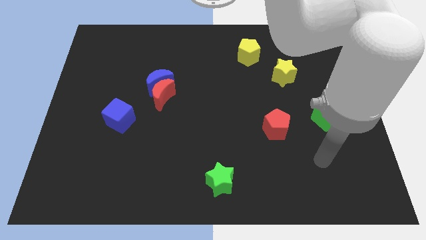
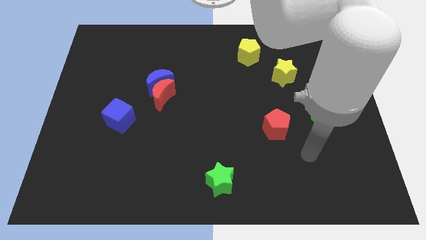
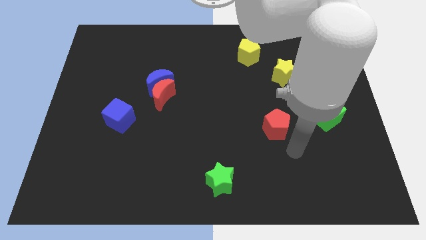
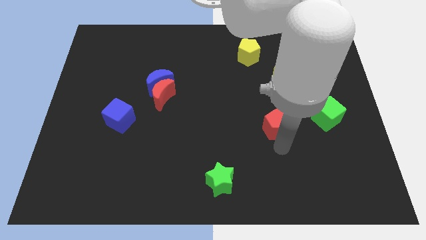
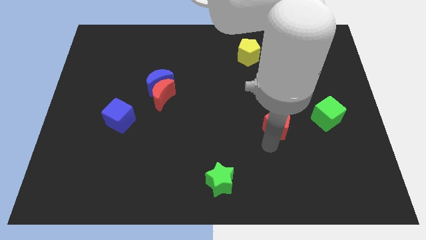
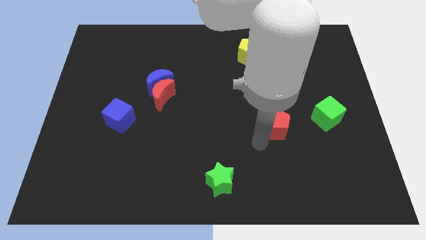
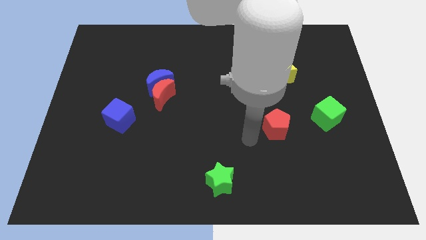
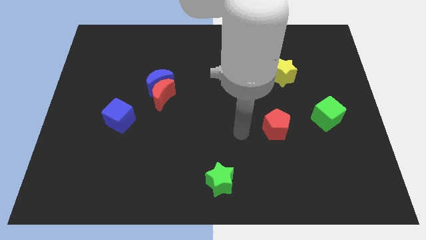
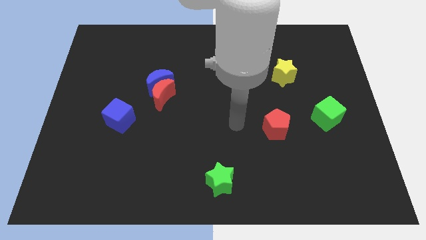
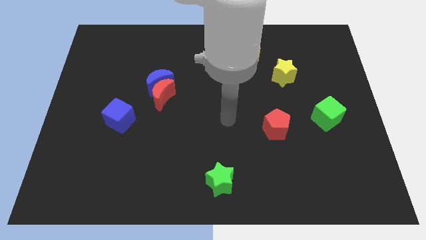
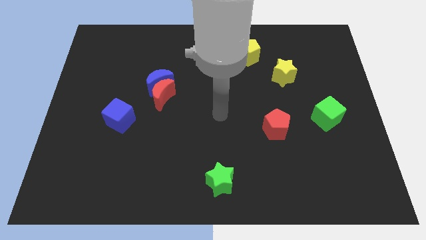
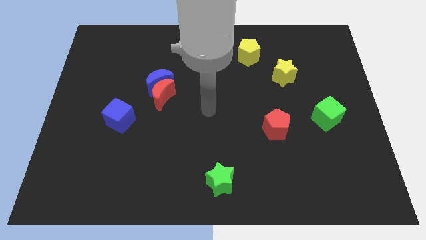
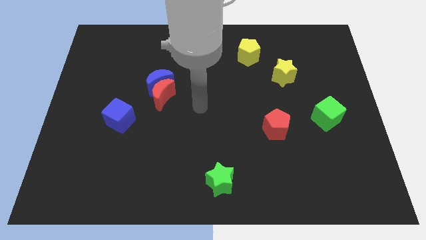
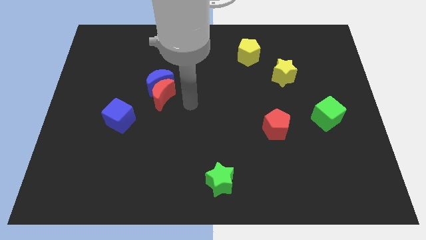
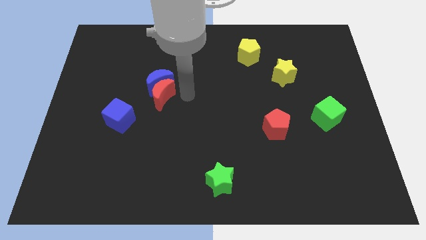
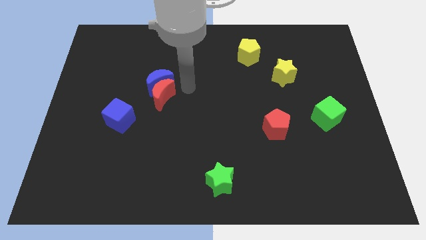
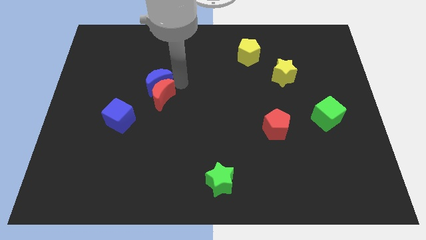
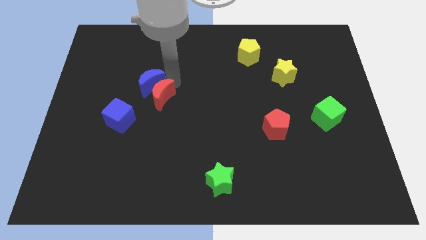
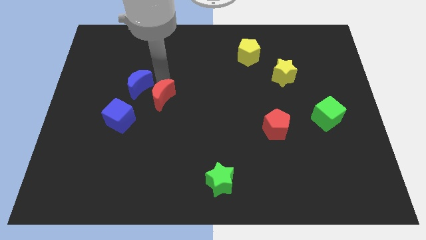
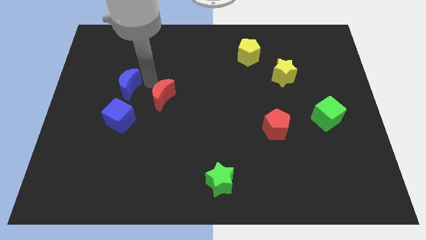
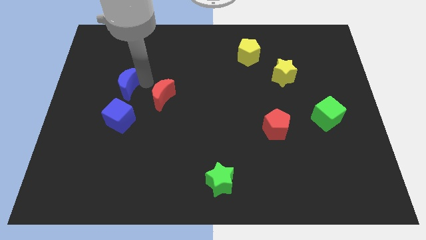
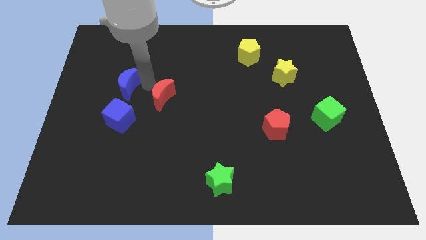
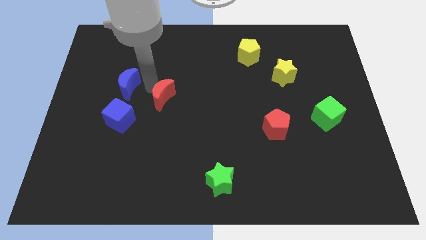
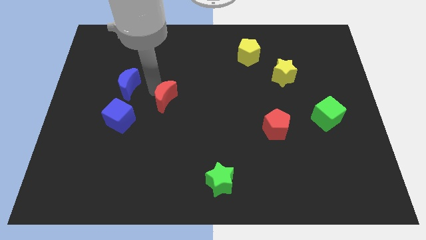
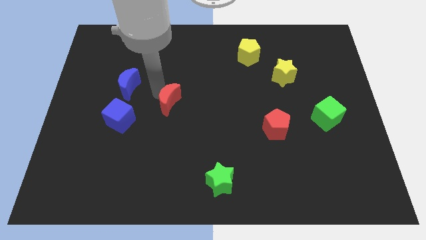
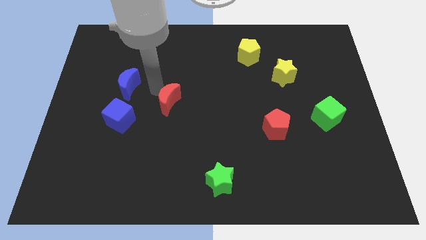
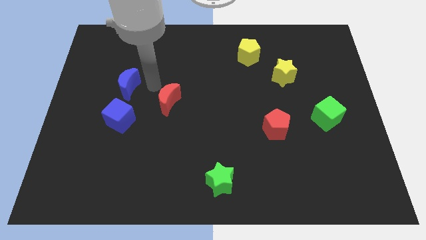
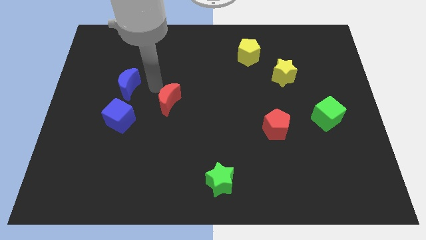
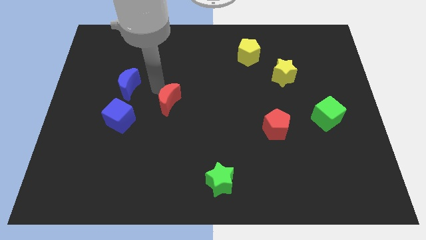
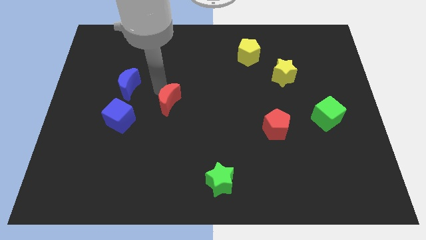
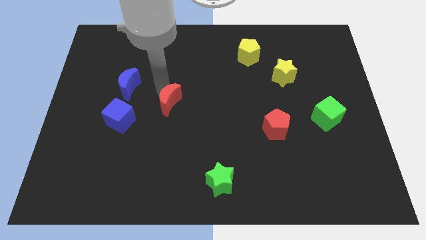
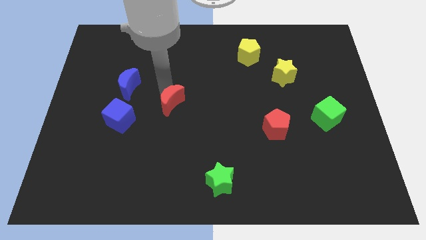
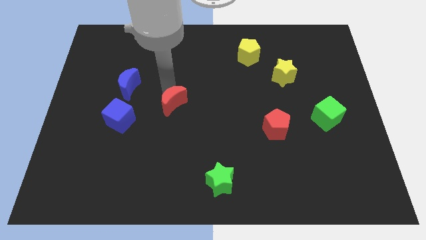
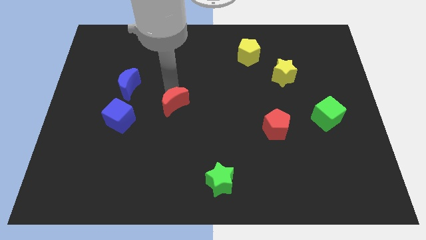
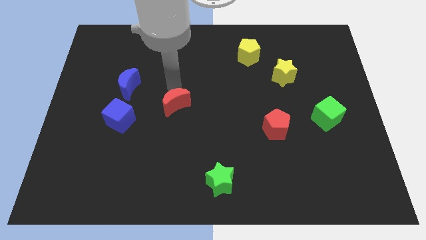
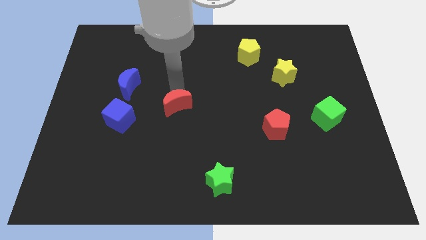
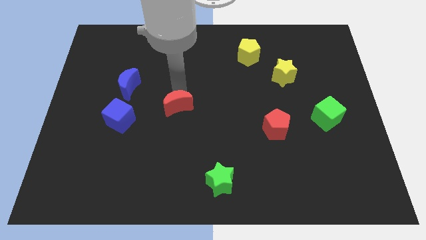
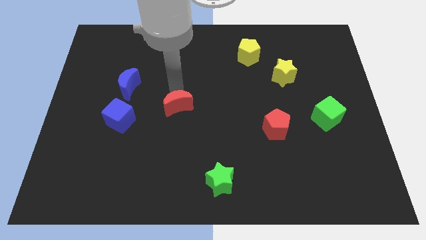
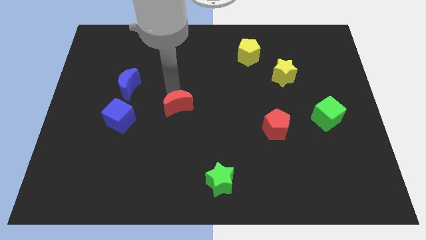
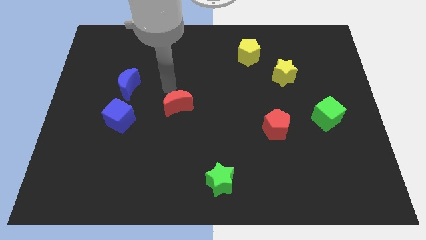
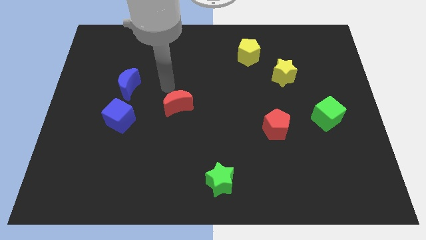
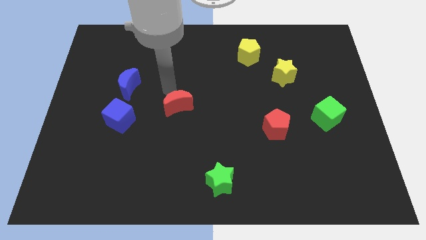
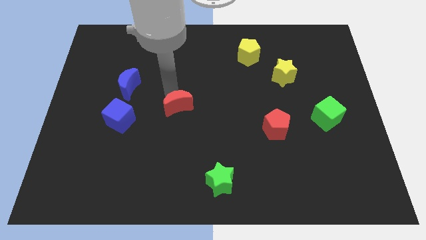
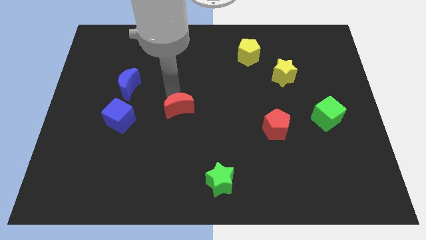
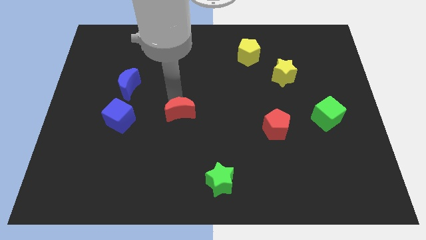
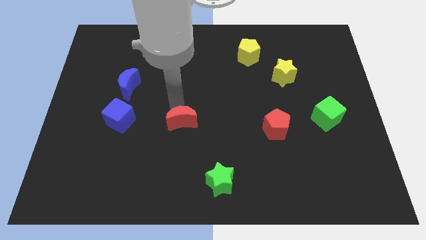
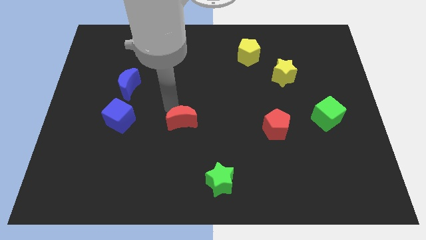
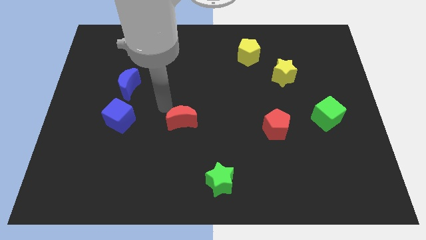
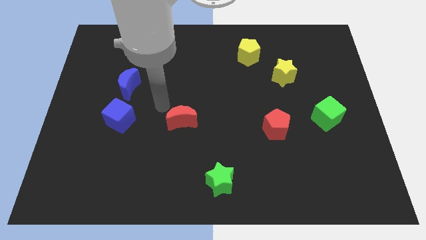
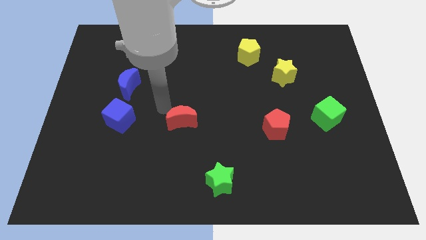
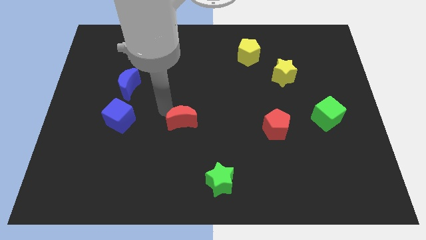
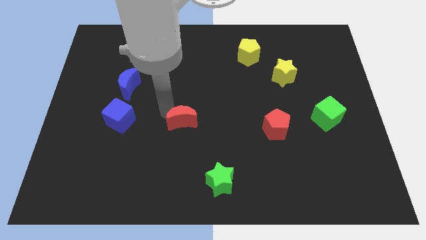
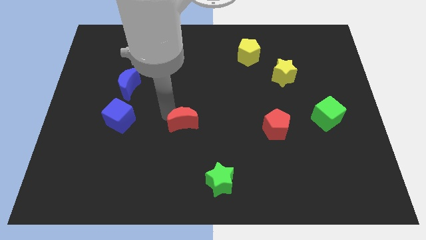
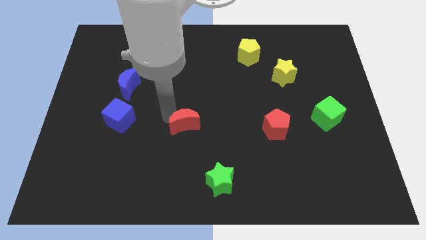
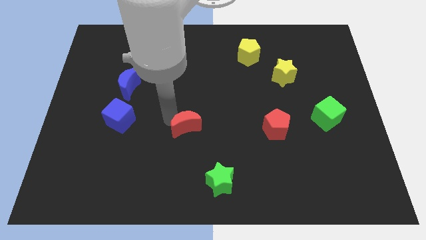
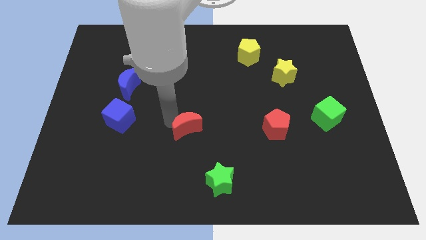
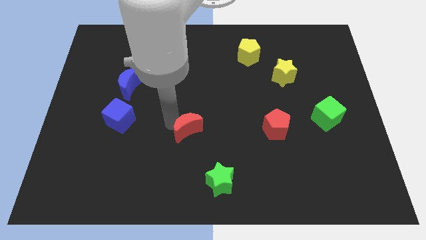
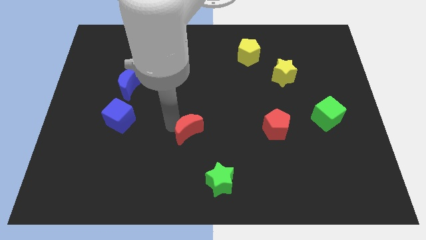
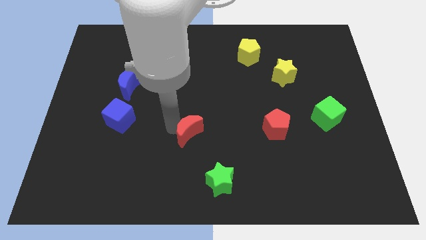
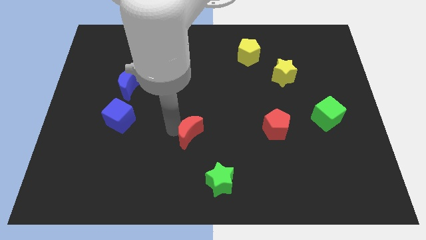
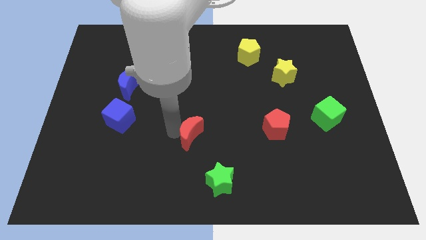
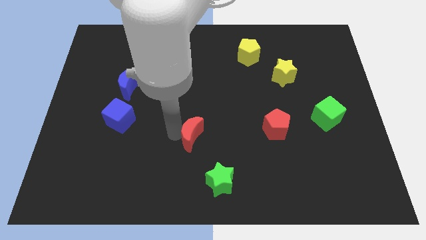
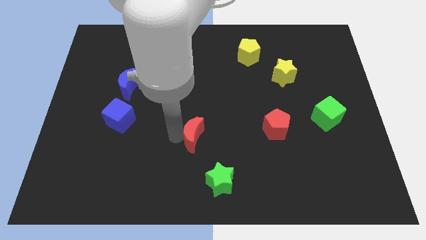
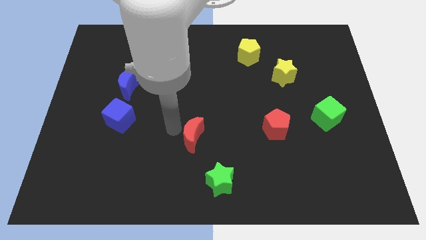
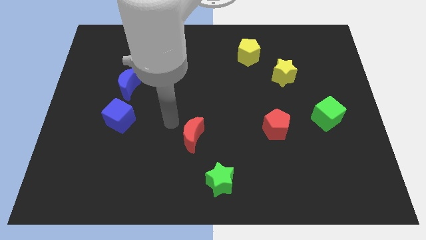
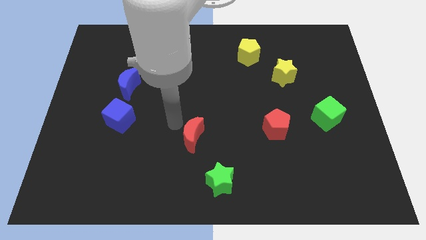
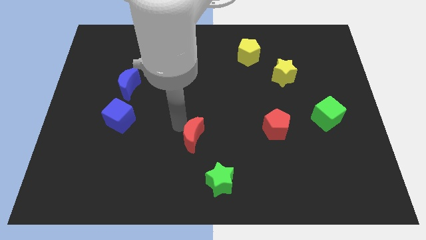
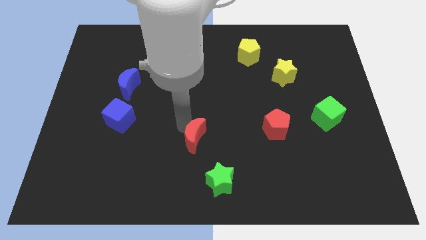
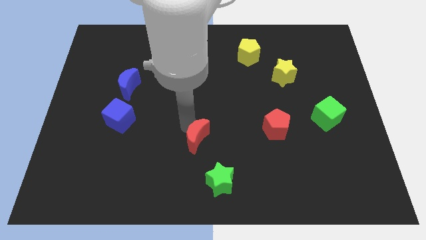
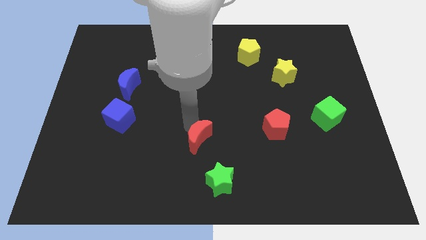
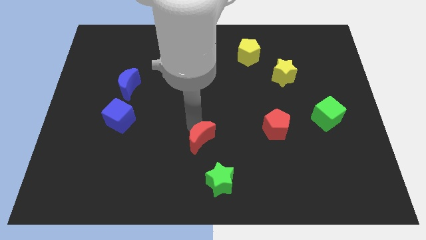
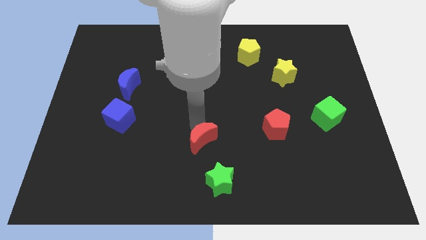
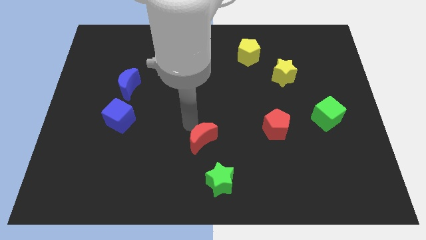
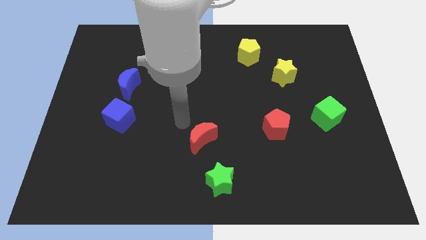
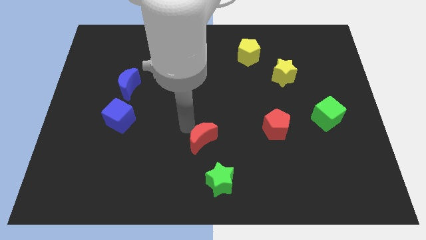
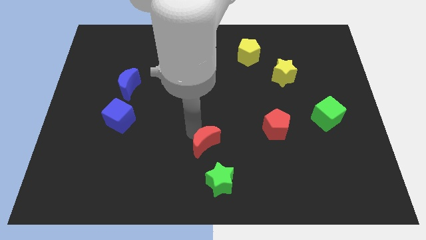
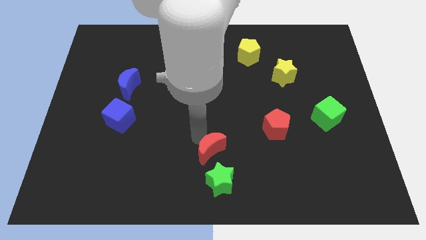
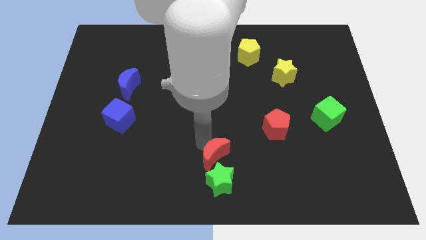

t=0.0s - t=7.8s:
move the red moon downwards and then right

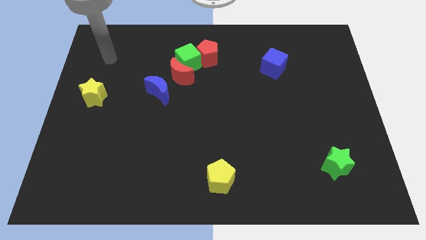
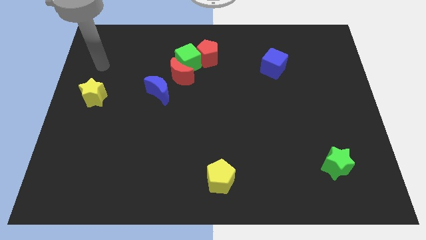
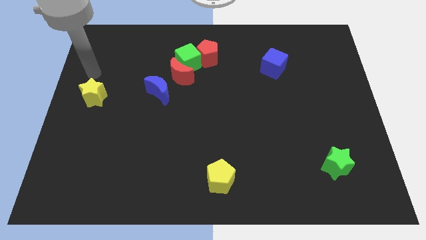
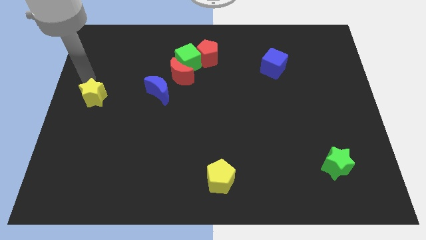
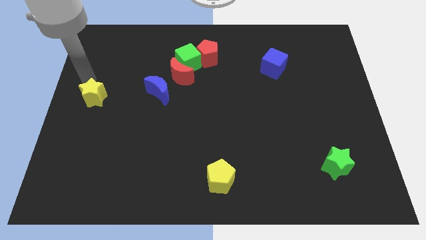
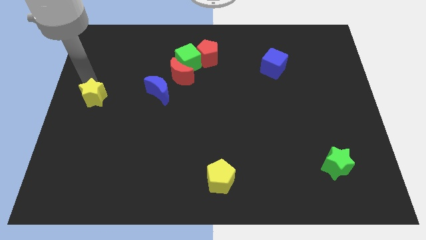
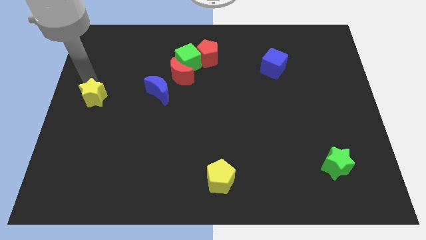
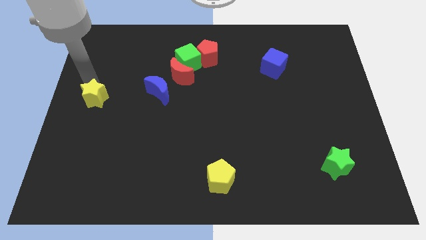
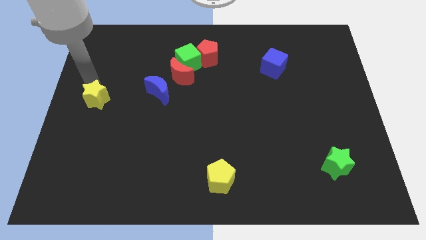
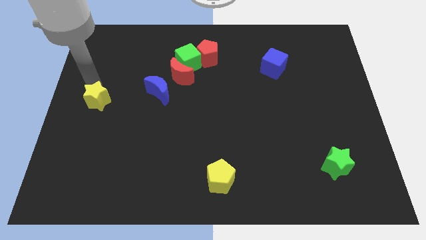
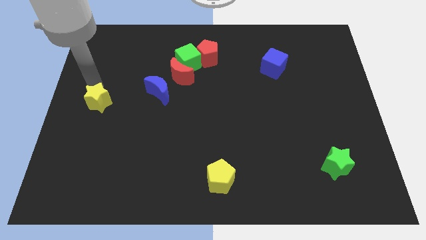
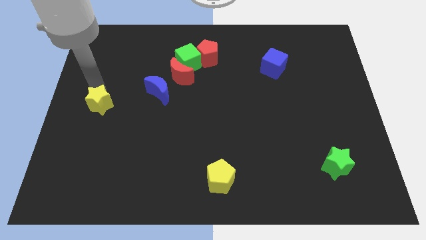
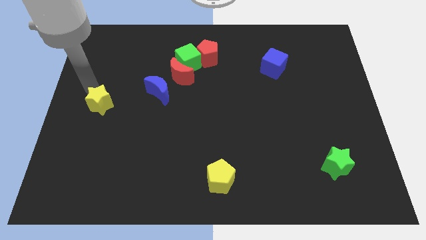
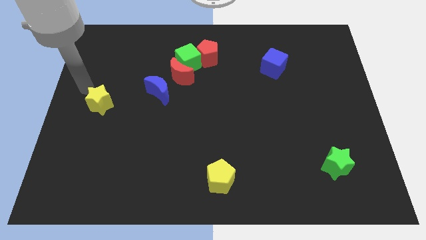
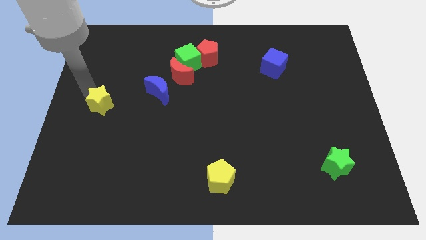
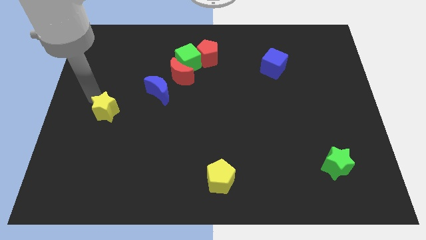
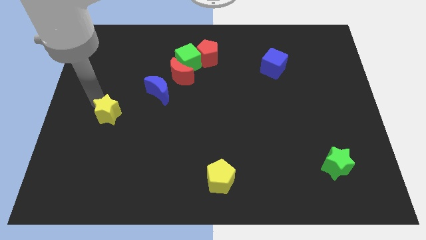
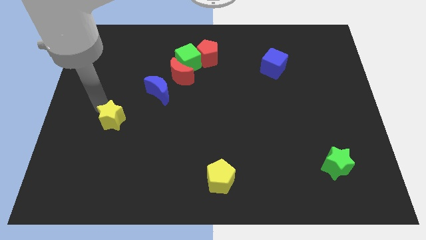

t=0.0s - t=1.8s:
push the yellow star diagonally down and right a bit
